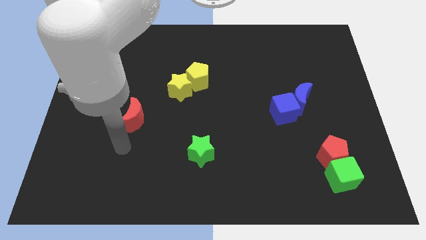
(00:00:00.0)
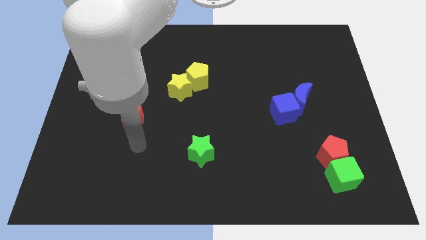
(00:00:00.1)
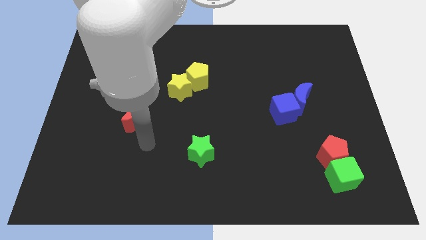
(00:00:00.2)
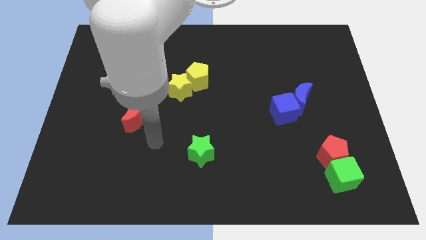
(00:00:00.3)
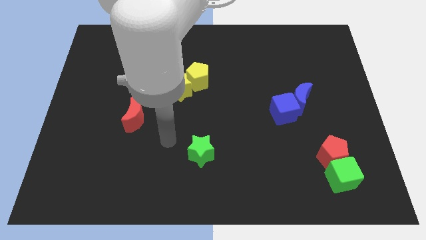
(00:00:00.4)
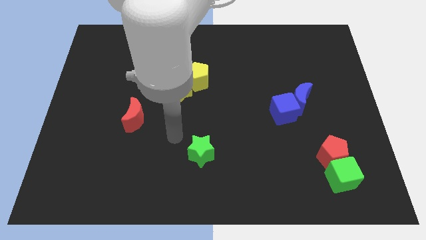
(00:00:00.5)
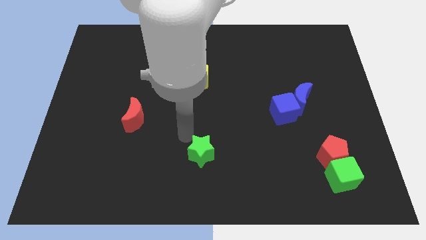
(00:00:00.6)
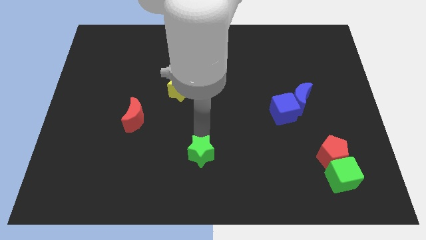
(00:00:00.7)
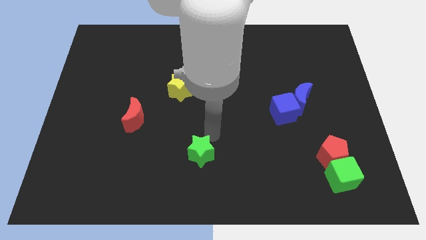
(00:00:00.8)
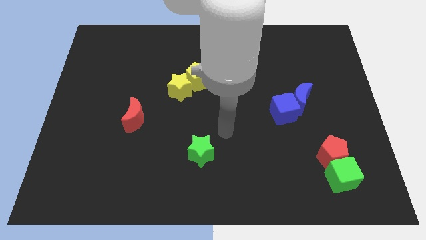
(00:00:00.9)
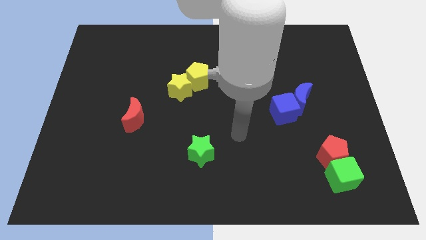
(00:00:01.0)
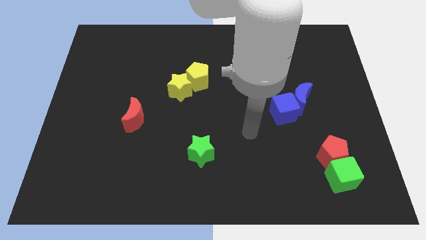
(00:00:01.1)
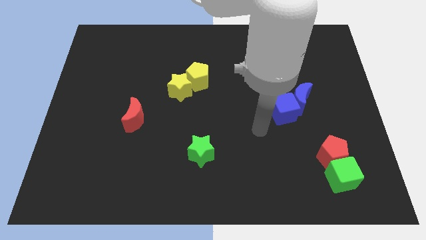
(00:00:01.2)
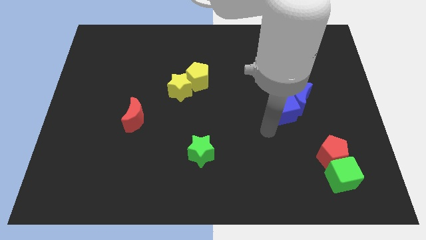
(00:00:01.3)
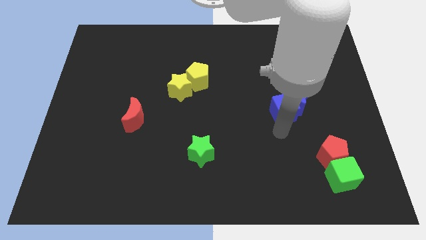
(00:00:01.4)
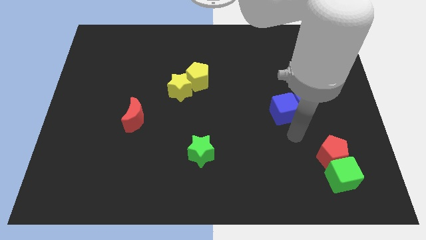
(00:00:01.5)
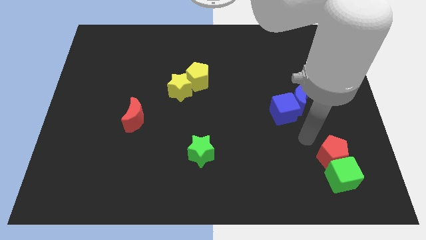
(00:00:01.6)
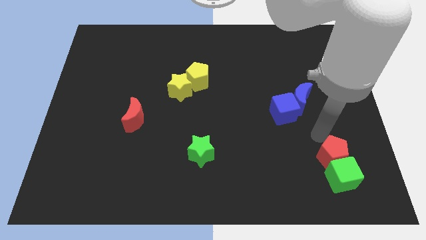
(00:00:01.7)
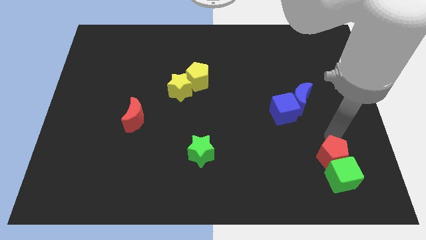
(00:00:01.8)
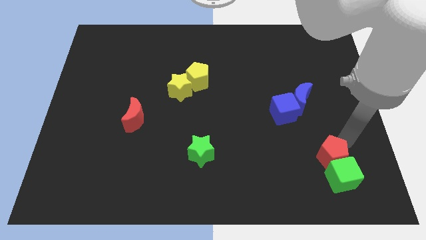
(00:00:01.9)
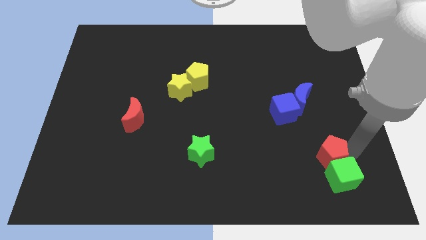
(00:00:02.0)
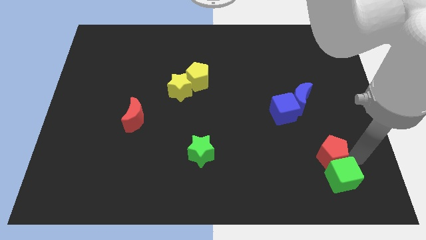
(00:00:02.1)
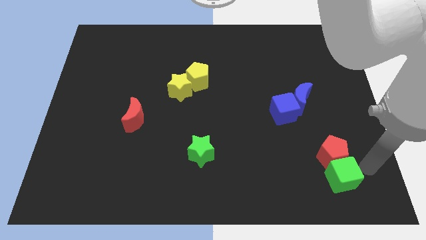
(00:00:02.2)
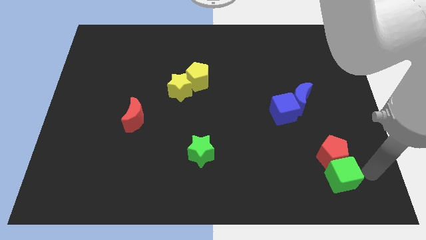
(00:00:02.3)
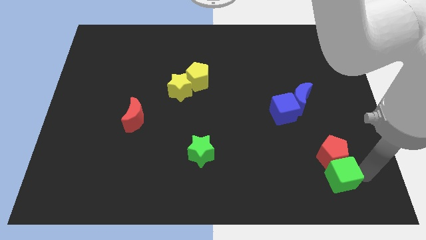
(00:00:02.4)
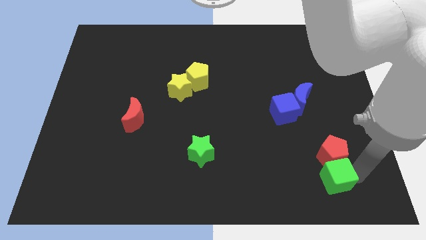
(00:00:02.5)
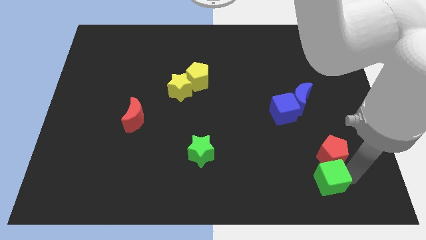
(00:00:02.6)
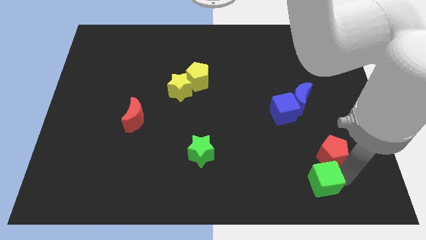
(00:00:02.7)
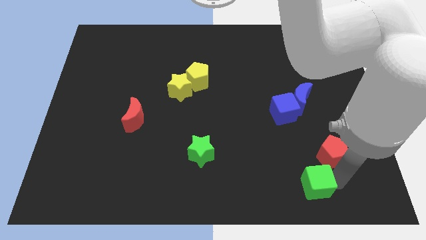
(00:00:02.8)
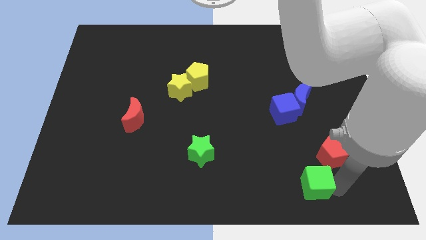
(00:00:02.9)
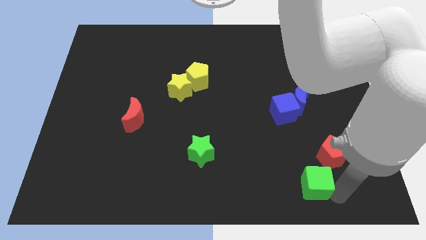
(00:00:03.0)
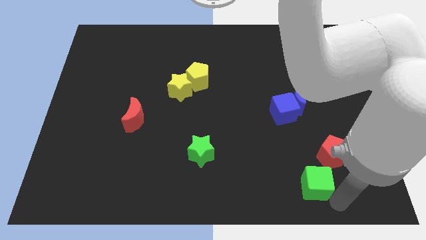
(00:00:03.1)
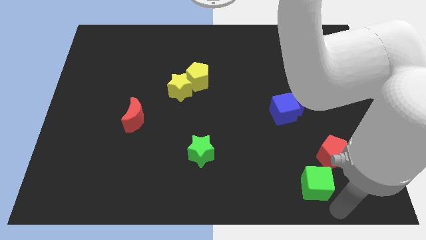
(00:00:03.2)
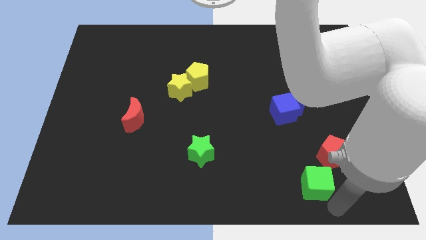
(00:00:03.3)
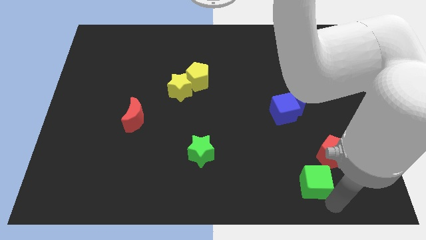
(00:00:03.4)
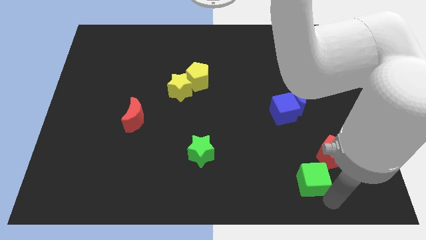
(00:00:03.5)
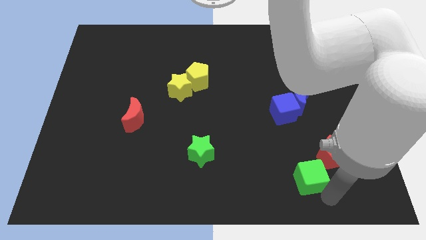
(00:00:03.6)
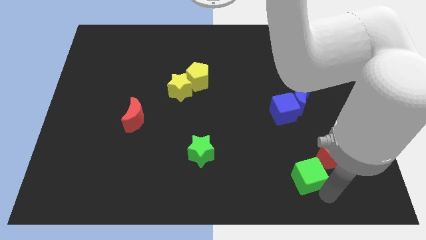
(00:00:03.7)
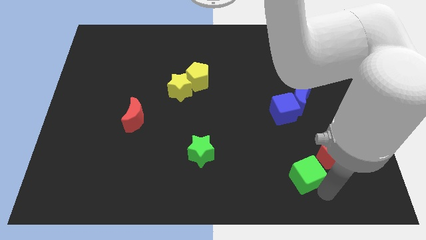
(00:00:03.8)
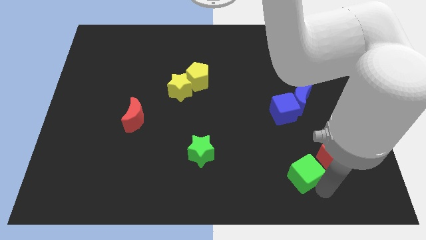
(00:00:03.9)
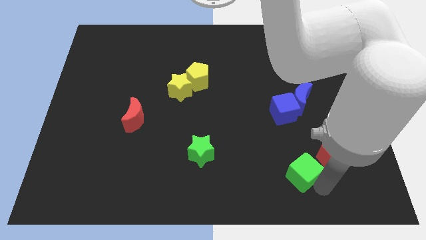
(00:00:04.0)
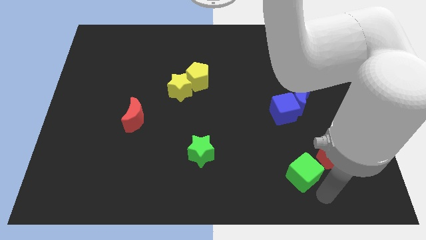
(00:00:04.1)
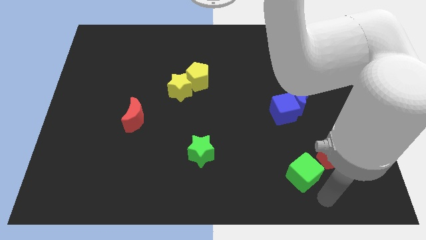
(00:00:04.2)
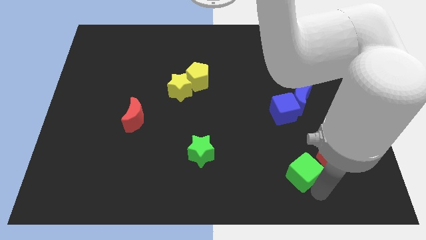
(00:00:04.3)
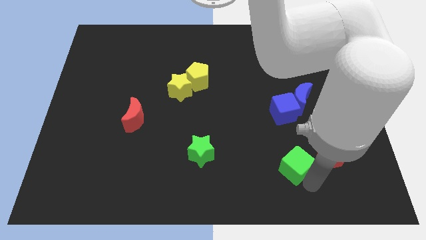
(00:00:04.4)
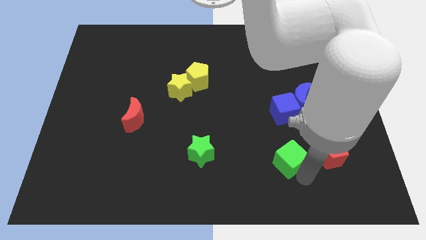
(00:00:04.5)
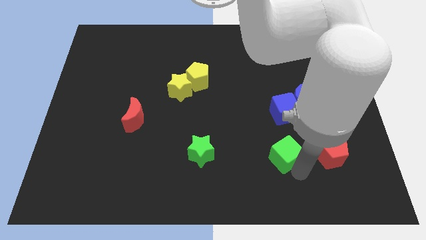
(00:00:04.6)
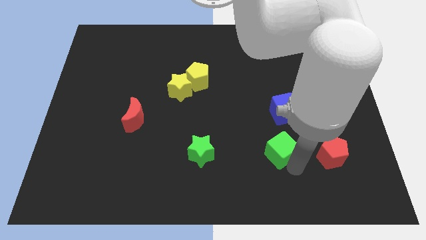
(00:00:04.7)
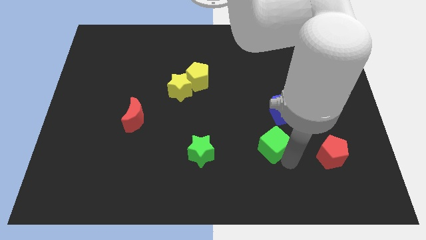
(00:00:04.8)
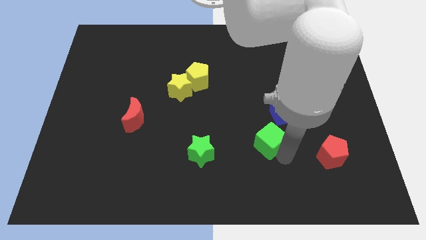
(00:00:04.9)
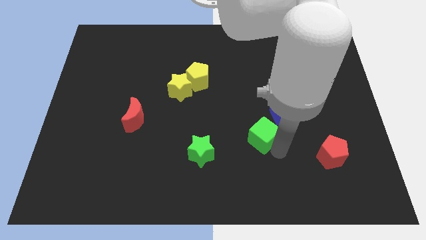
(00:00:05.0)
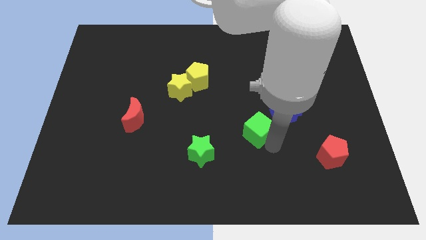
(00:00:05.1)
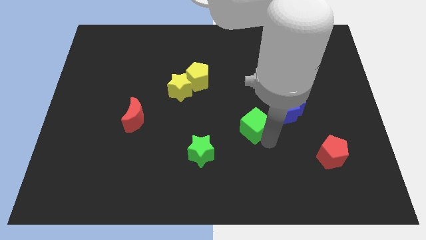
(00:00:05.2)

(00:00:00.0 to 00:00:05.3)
push the green cube to the center
